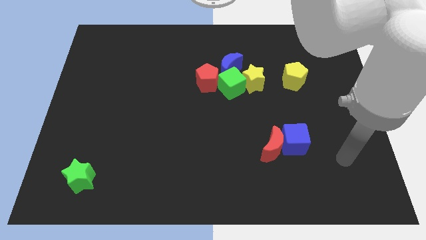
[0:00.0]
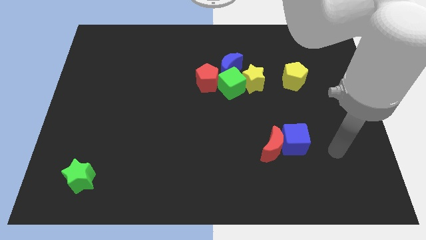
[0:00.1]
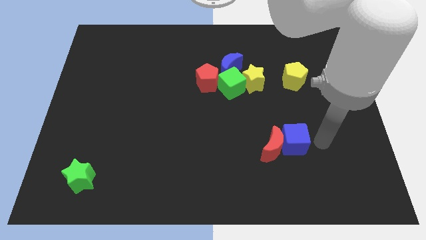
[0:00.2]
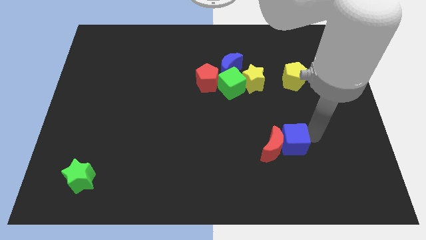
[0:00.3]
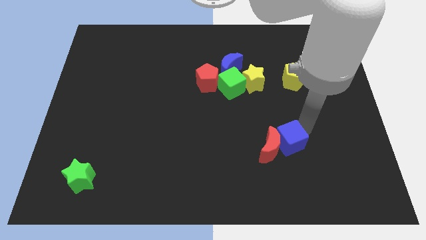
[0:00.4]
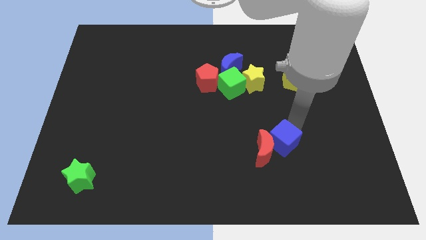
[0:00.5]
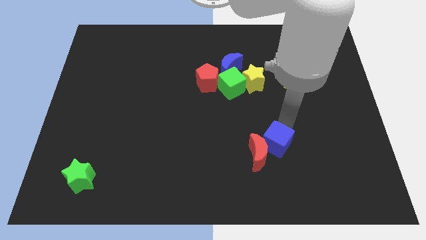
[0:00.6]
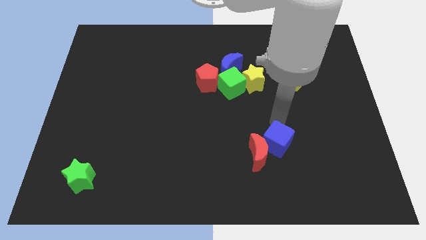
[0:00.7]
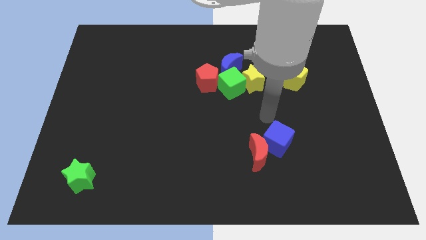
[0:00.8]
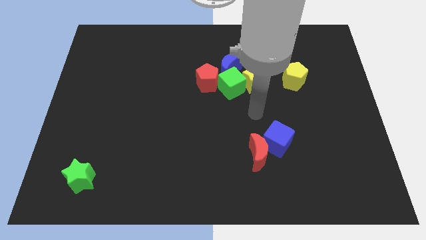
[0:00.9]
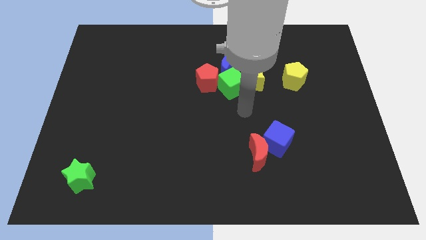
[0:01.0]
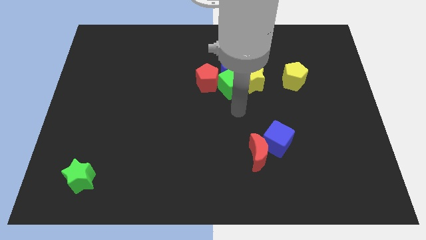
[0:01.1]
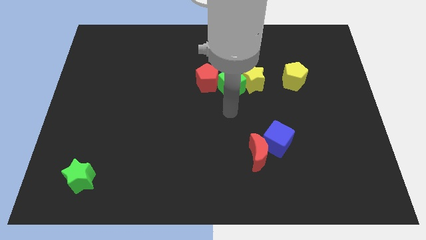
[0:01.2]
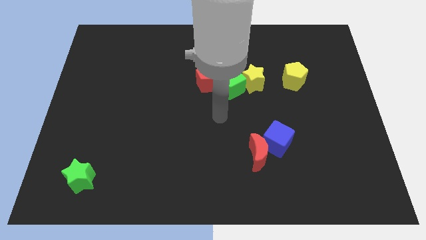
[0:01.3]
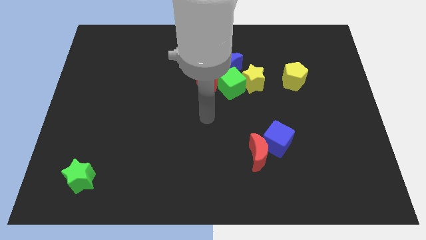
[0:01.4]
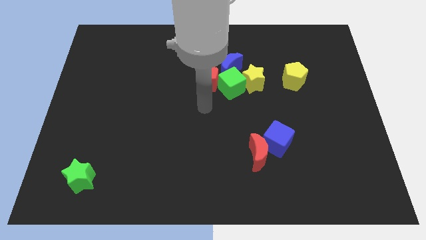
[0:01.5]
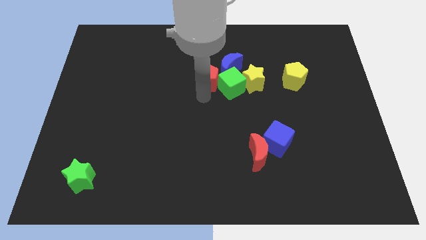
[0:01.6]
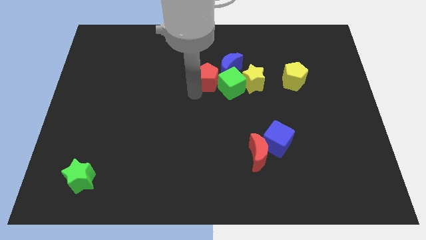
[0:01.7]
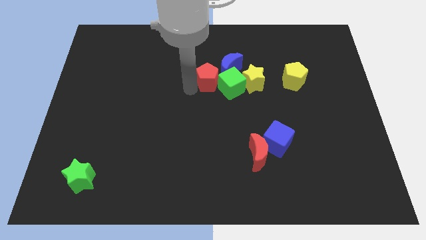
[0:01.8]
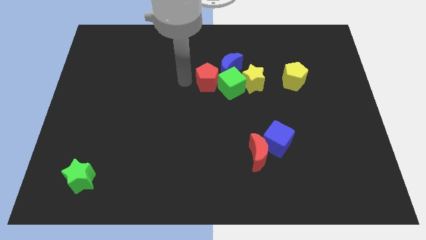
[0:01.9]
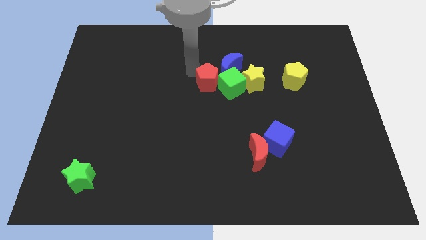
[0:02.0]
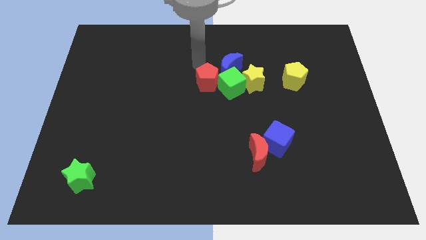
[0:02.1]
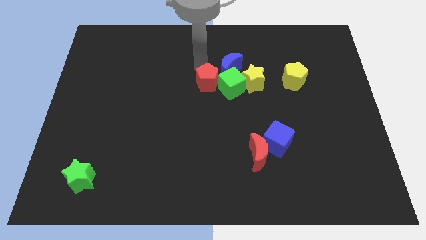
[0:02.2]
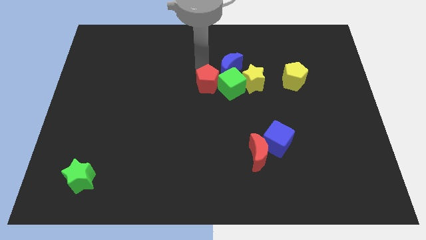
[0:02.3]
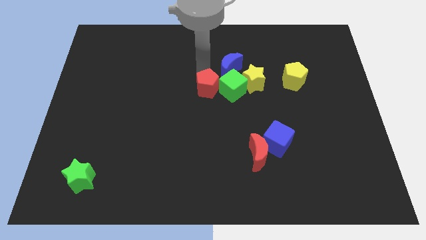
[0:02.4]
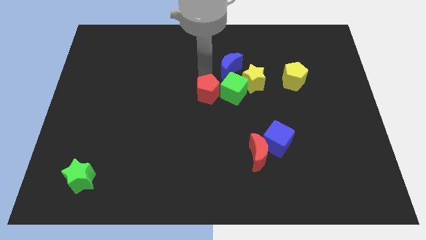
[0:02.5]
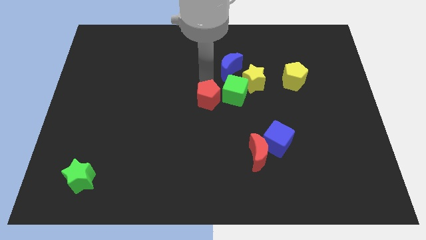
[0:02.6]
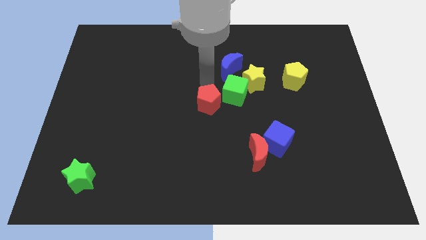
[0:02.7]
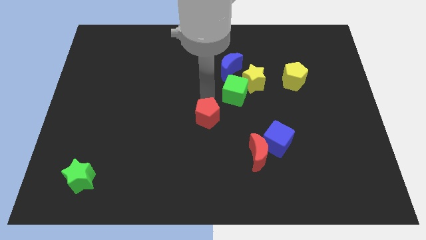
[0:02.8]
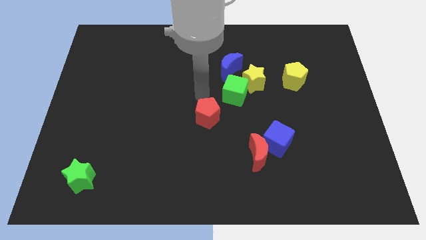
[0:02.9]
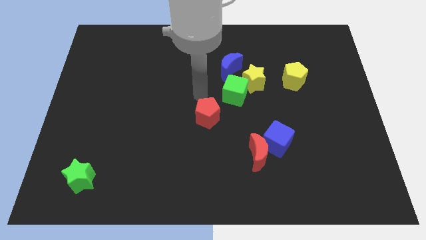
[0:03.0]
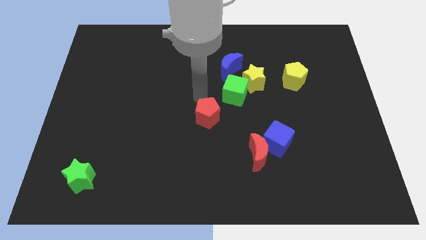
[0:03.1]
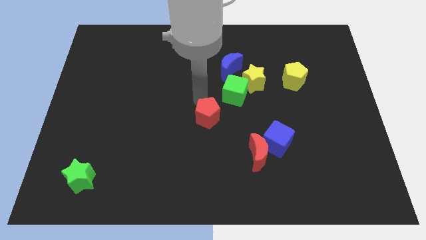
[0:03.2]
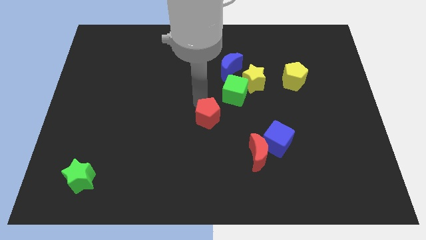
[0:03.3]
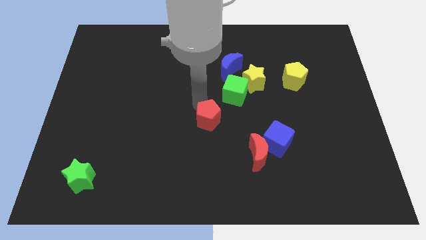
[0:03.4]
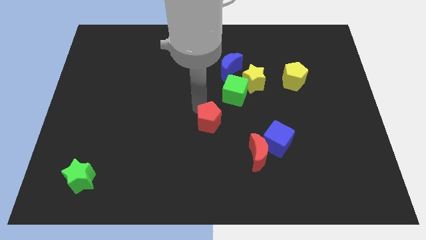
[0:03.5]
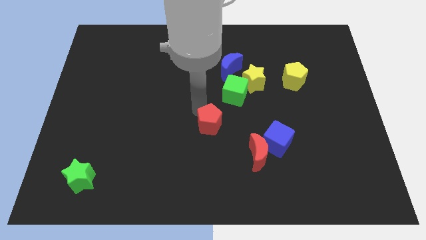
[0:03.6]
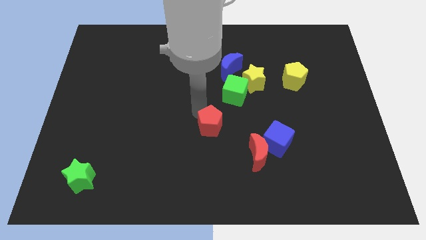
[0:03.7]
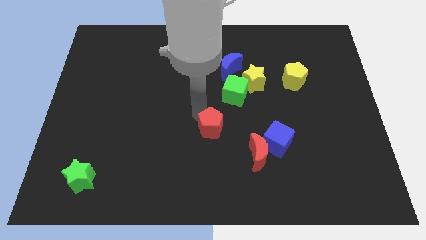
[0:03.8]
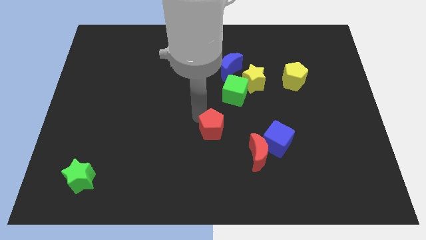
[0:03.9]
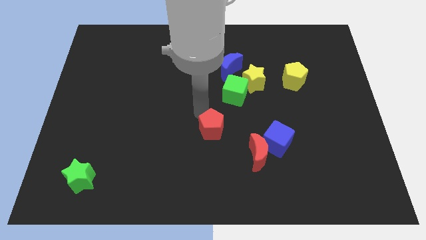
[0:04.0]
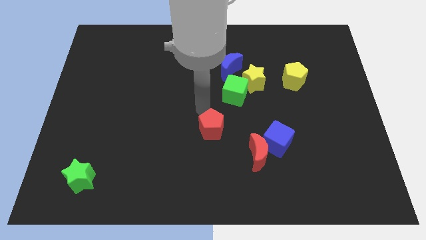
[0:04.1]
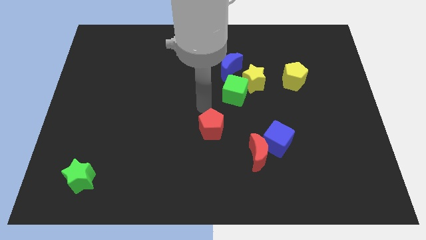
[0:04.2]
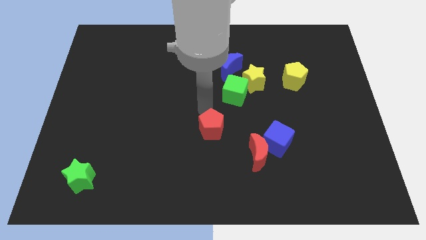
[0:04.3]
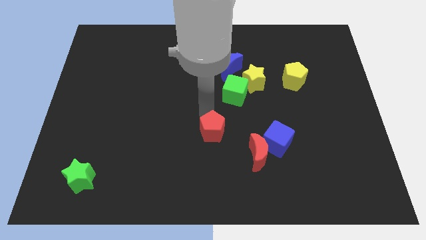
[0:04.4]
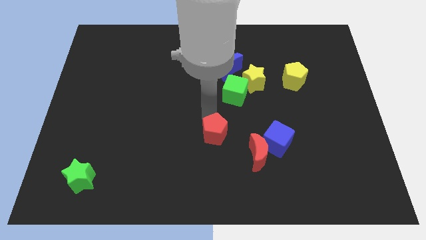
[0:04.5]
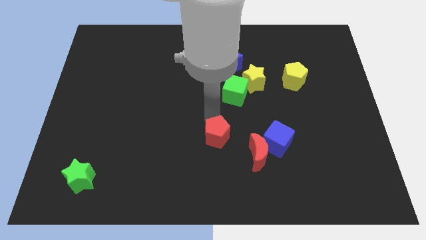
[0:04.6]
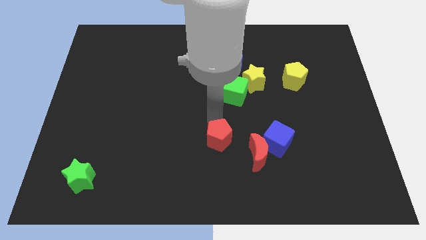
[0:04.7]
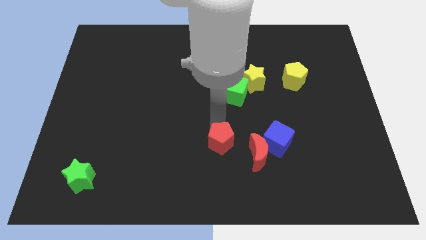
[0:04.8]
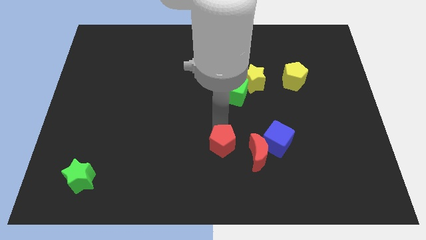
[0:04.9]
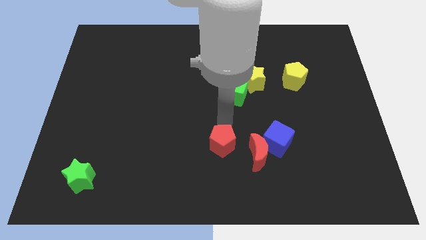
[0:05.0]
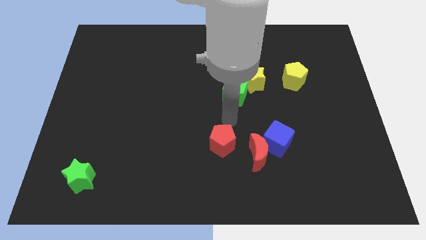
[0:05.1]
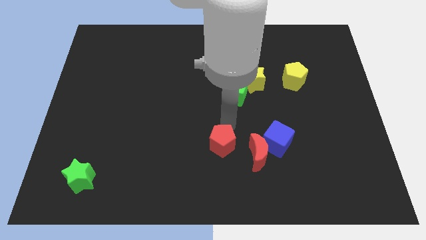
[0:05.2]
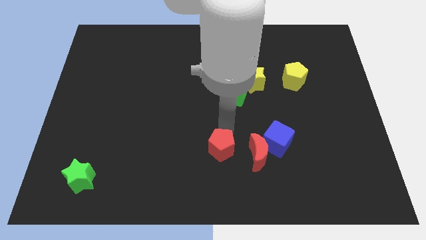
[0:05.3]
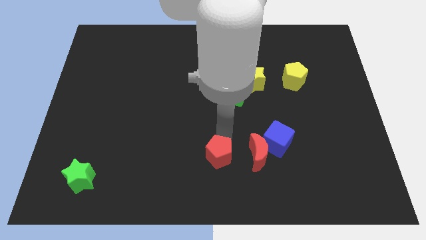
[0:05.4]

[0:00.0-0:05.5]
slide the red pentagon to the bottom
